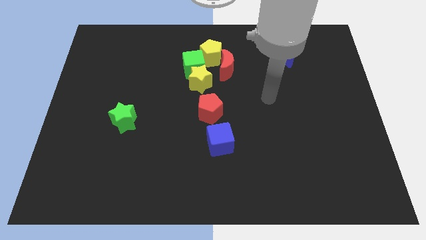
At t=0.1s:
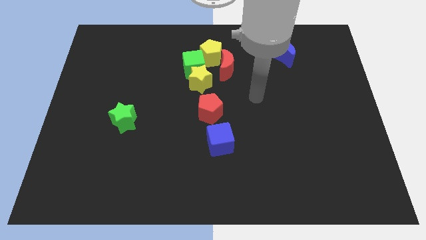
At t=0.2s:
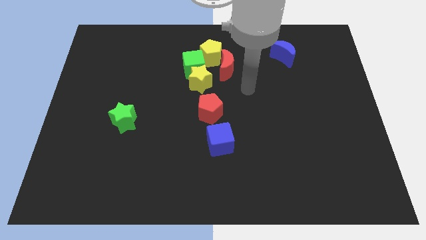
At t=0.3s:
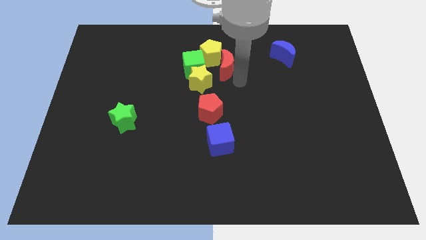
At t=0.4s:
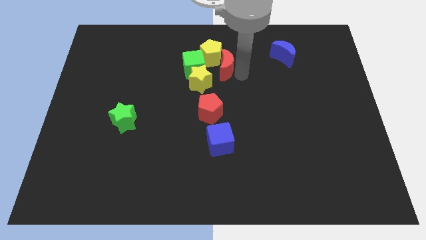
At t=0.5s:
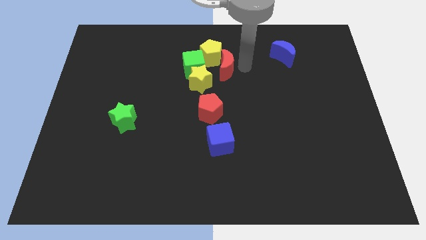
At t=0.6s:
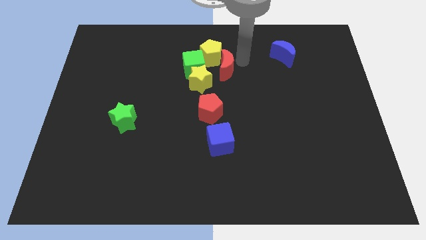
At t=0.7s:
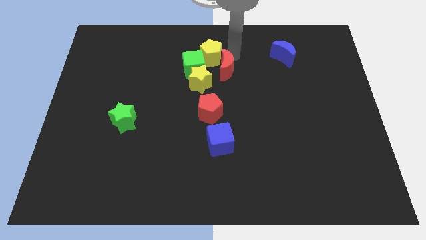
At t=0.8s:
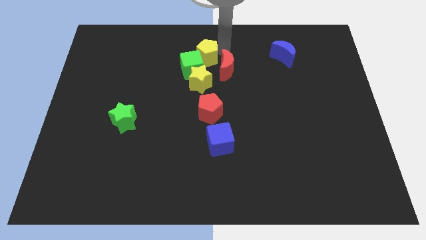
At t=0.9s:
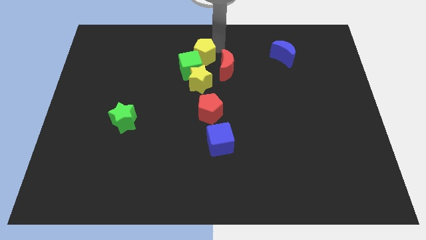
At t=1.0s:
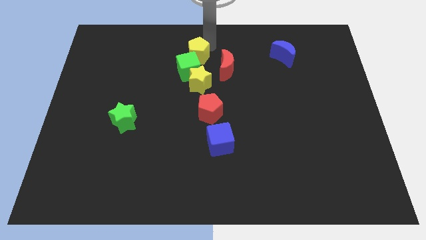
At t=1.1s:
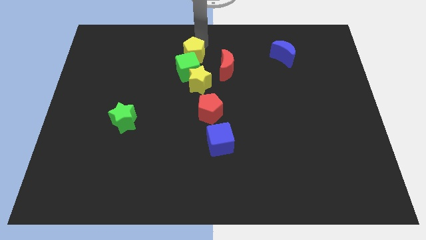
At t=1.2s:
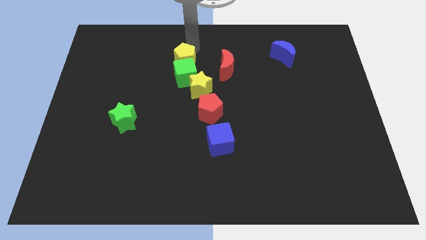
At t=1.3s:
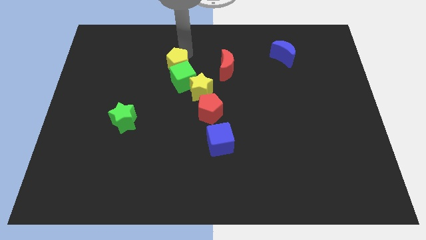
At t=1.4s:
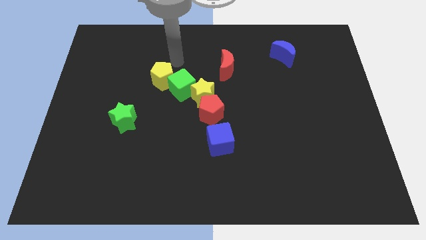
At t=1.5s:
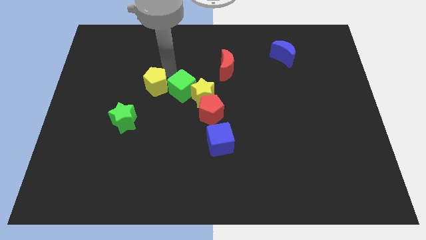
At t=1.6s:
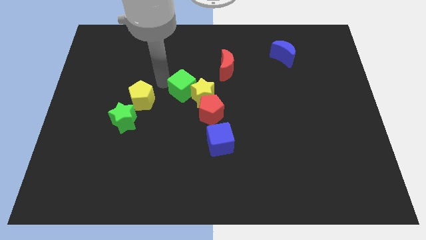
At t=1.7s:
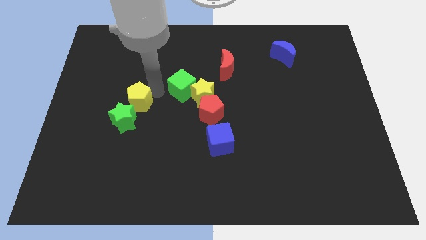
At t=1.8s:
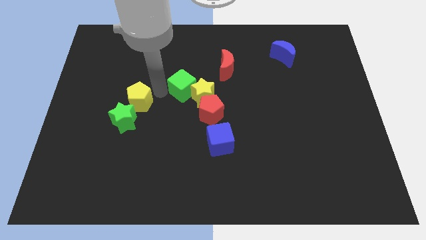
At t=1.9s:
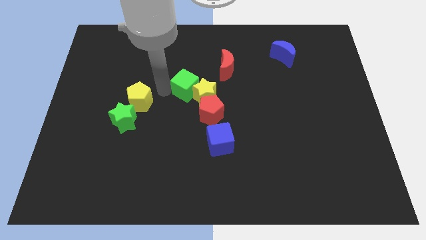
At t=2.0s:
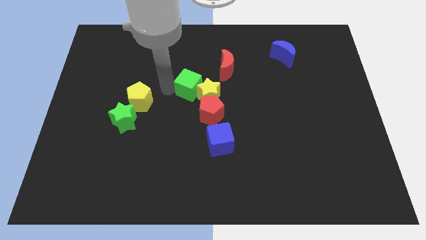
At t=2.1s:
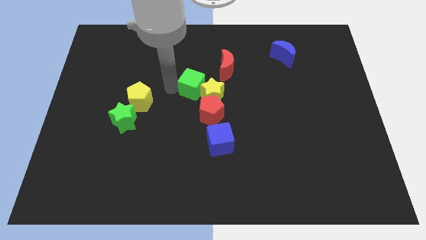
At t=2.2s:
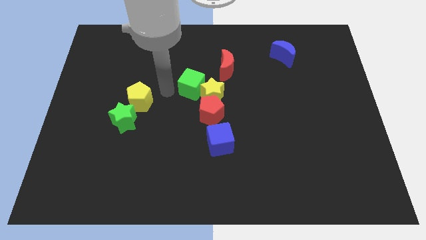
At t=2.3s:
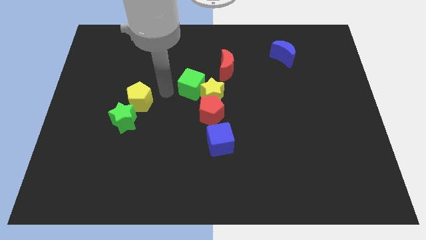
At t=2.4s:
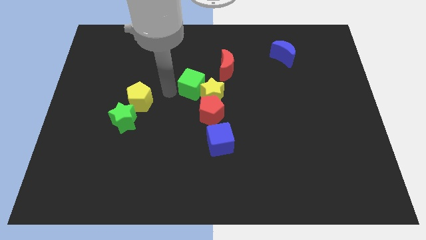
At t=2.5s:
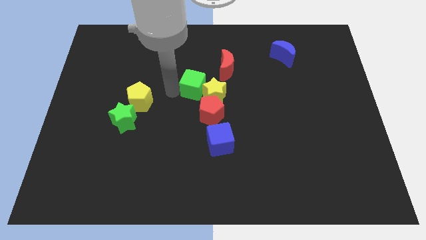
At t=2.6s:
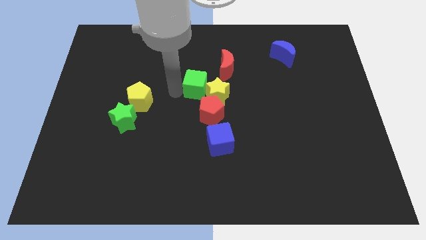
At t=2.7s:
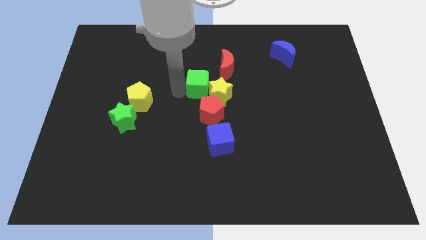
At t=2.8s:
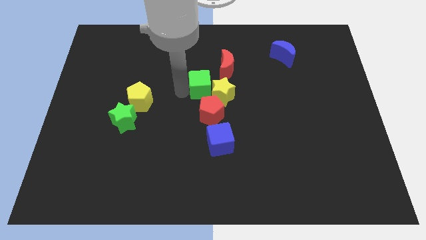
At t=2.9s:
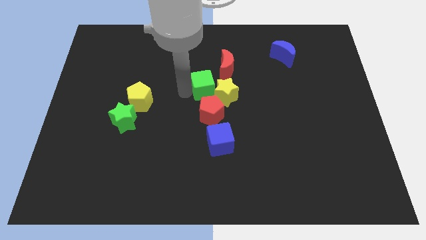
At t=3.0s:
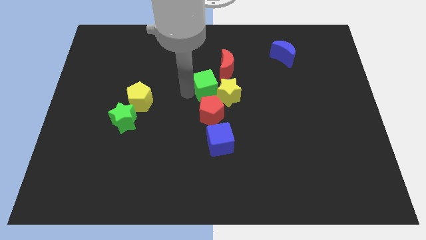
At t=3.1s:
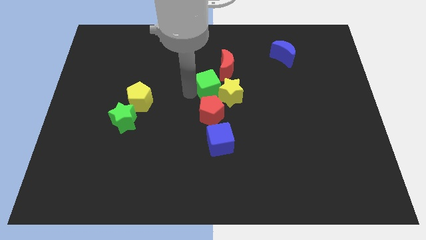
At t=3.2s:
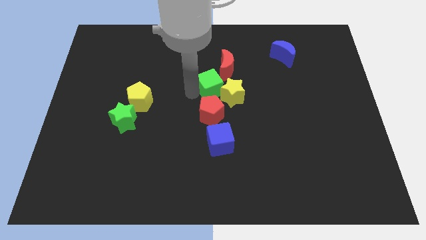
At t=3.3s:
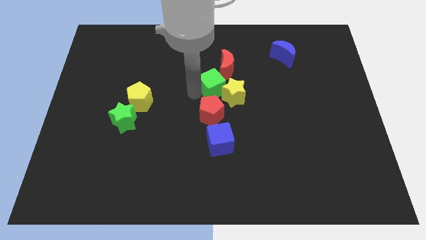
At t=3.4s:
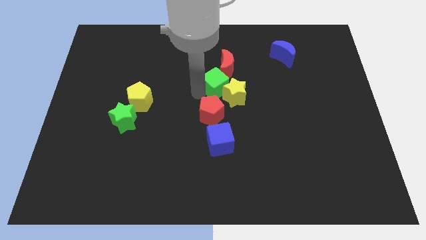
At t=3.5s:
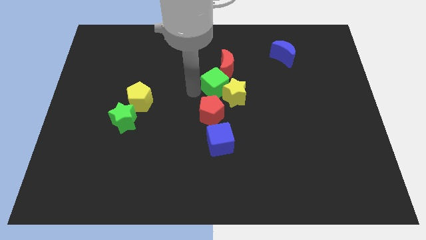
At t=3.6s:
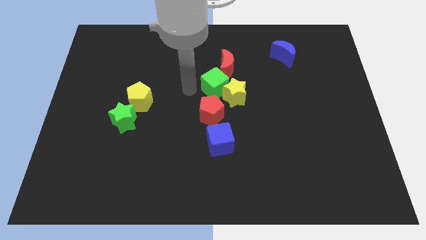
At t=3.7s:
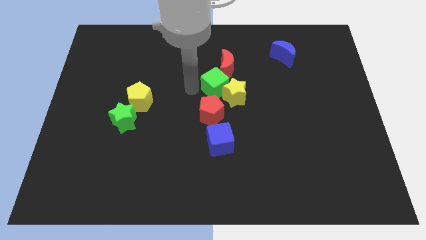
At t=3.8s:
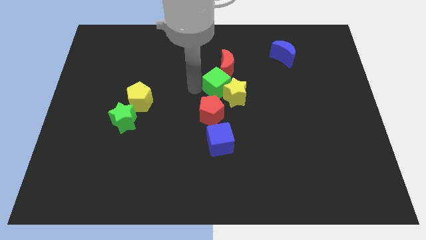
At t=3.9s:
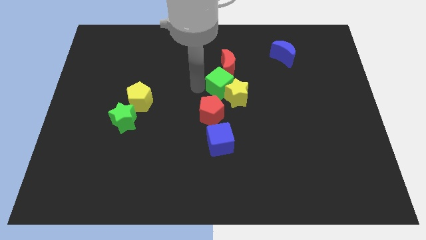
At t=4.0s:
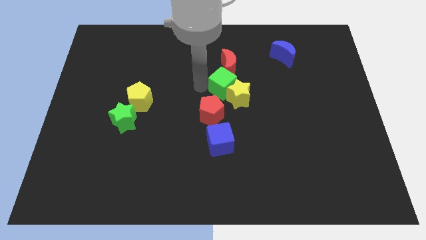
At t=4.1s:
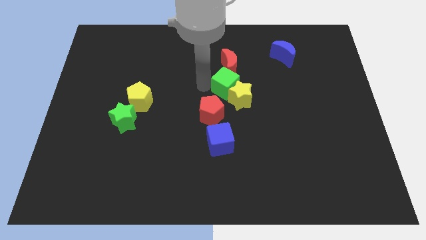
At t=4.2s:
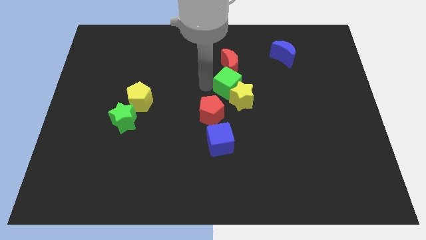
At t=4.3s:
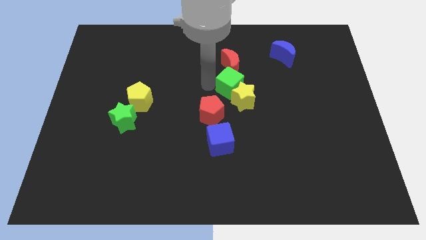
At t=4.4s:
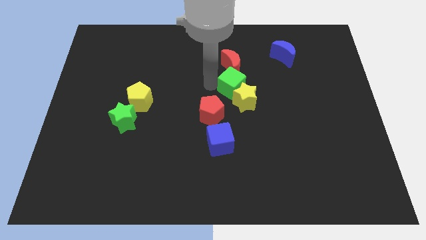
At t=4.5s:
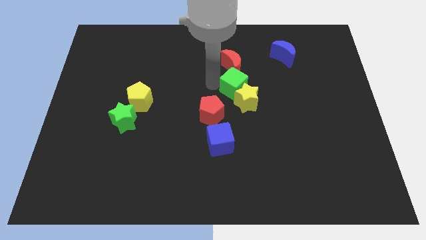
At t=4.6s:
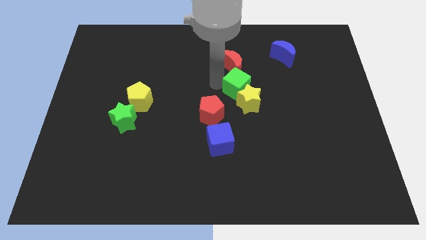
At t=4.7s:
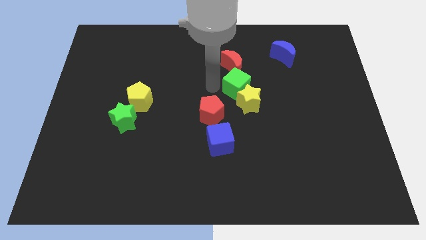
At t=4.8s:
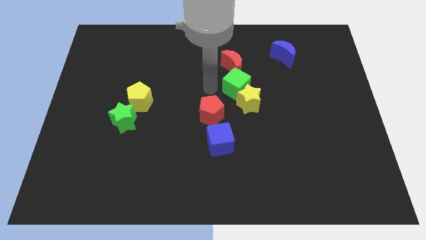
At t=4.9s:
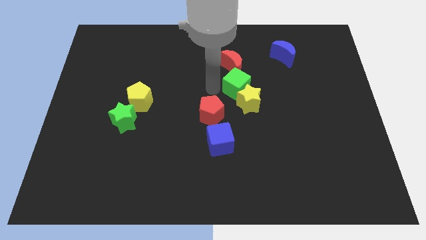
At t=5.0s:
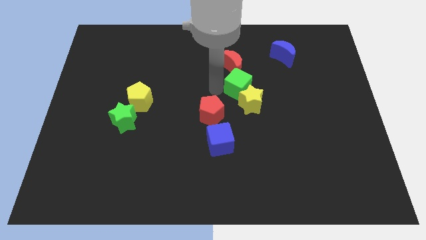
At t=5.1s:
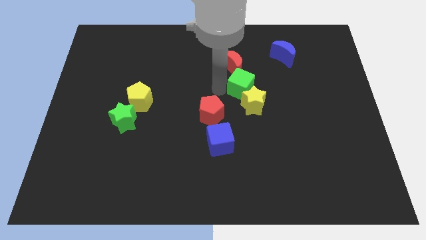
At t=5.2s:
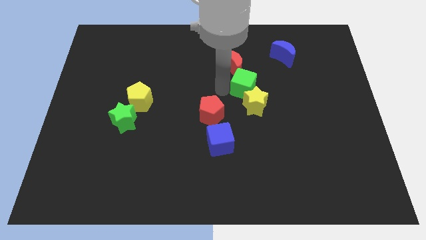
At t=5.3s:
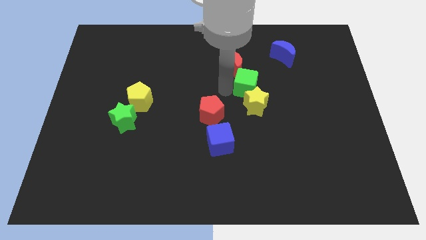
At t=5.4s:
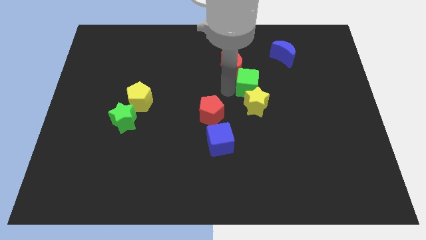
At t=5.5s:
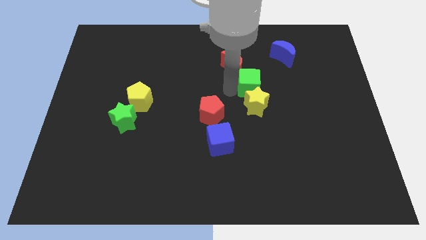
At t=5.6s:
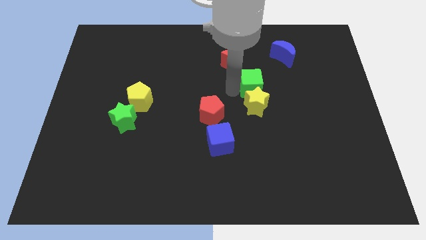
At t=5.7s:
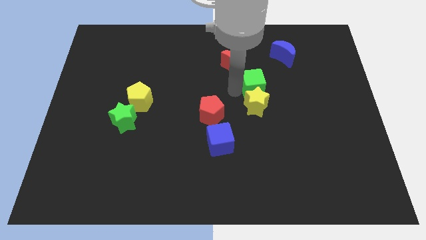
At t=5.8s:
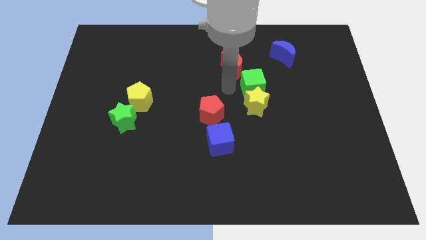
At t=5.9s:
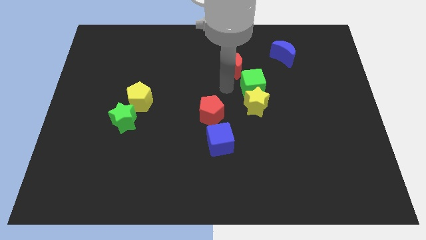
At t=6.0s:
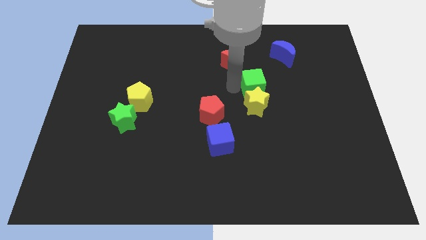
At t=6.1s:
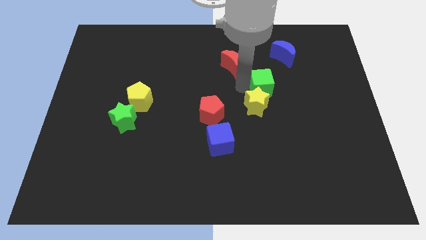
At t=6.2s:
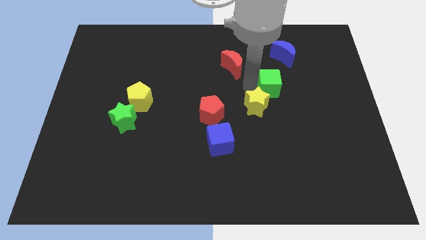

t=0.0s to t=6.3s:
put the green cube below the blue moon

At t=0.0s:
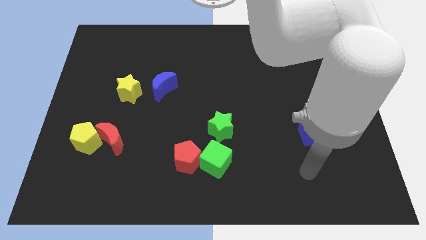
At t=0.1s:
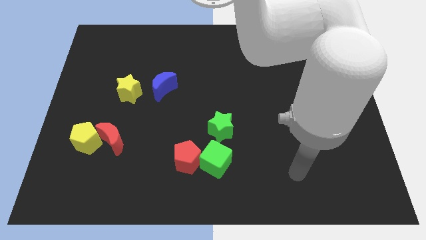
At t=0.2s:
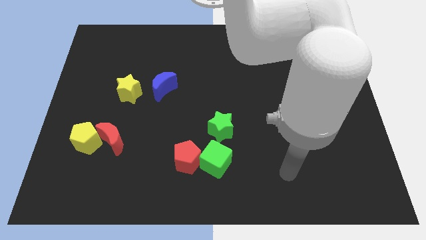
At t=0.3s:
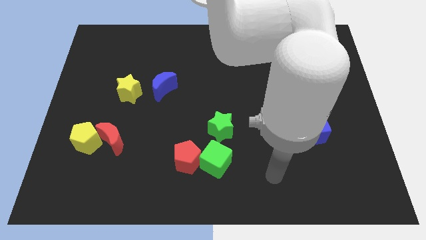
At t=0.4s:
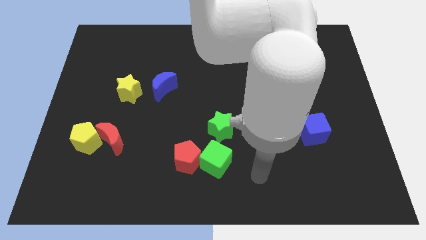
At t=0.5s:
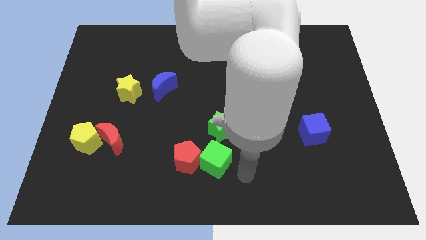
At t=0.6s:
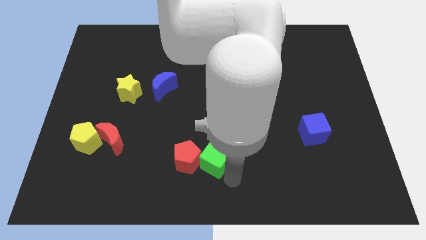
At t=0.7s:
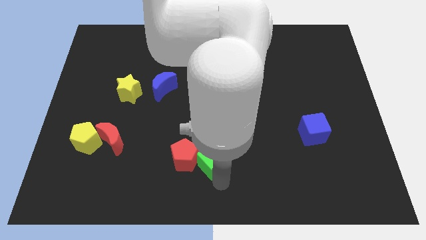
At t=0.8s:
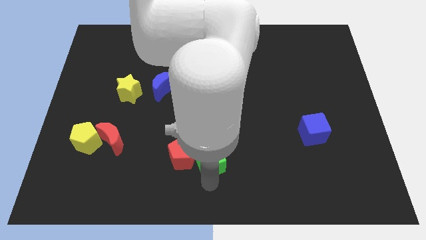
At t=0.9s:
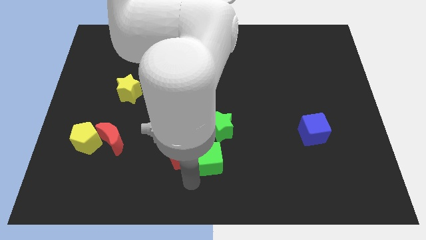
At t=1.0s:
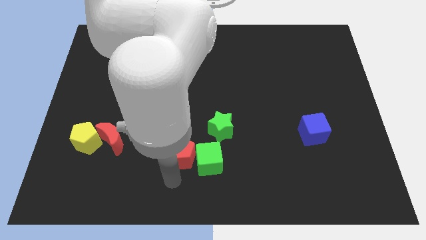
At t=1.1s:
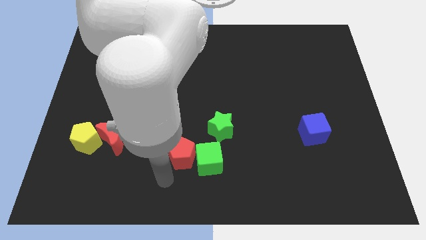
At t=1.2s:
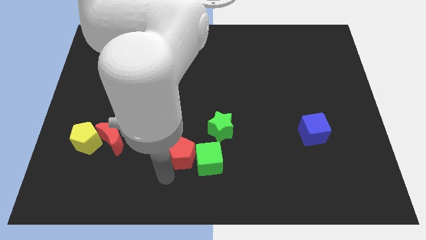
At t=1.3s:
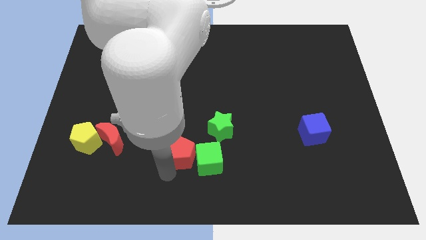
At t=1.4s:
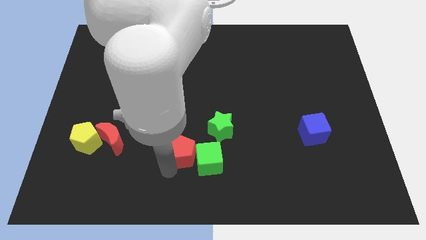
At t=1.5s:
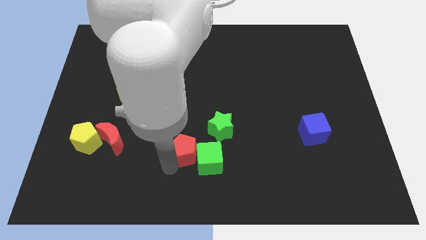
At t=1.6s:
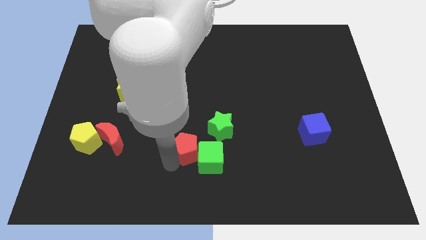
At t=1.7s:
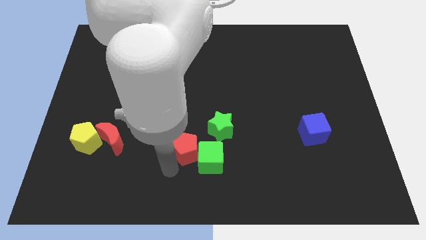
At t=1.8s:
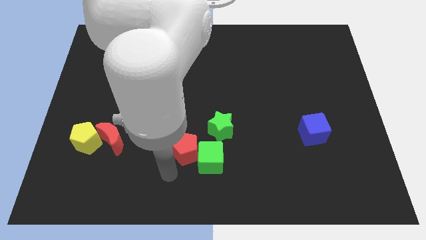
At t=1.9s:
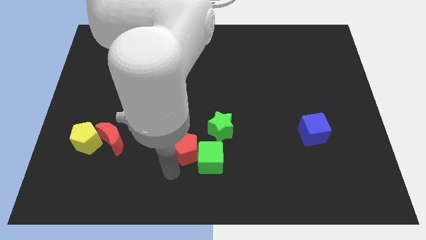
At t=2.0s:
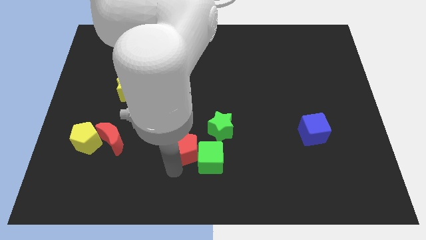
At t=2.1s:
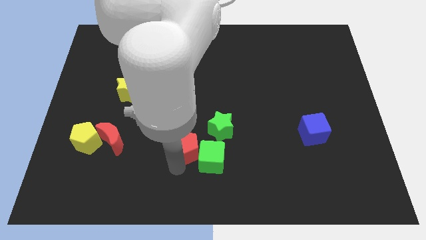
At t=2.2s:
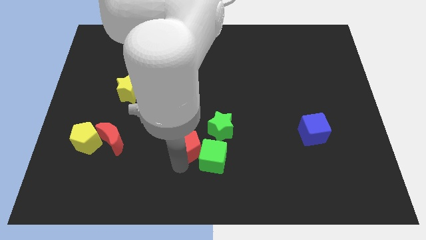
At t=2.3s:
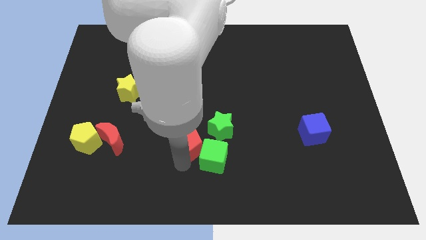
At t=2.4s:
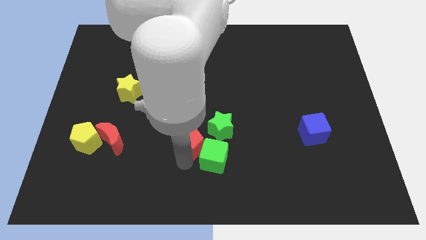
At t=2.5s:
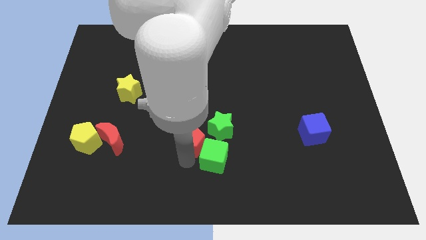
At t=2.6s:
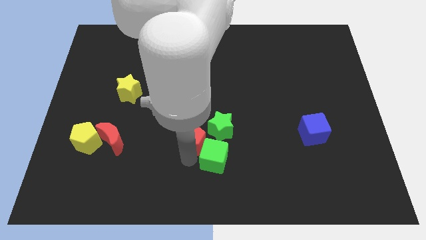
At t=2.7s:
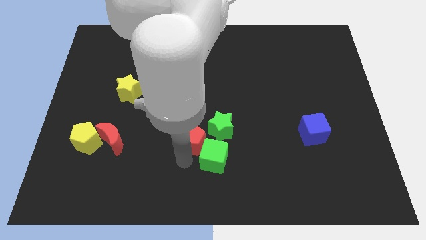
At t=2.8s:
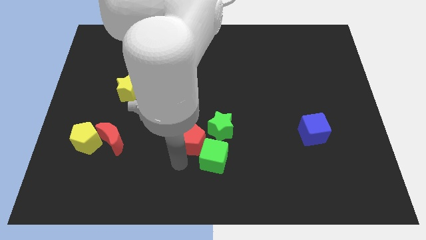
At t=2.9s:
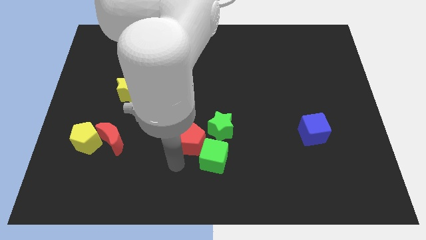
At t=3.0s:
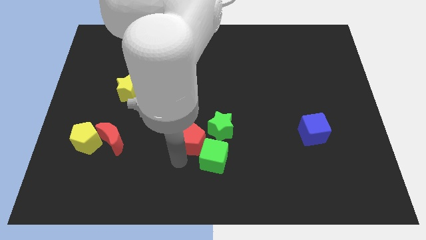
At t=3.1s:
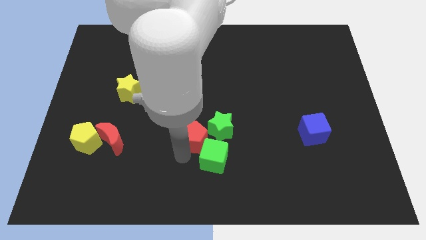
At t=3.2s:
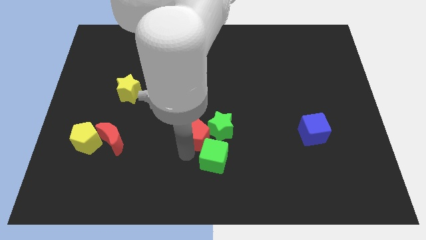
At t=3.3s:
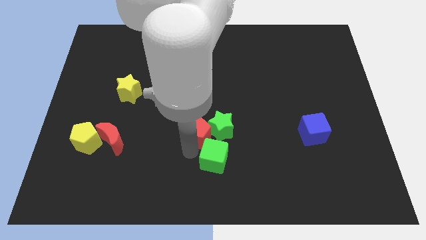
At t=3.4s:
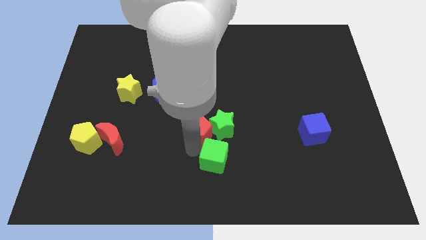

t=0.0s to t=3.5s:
move the red pentagon diagonally up and to the left of the green star
